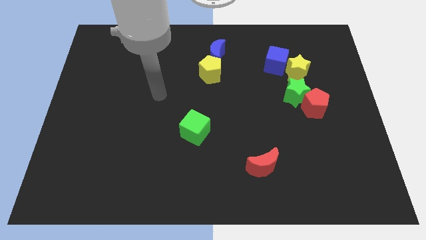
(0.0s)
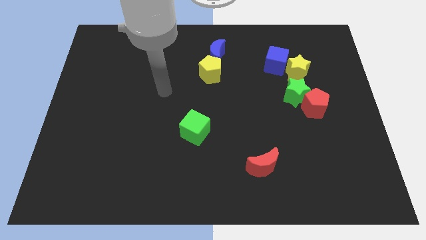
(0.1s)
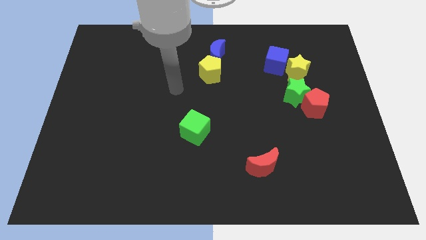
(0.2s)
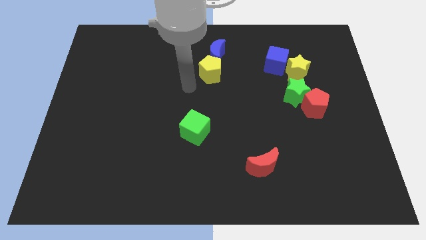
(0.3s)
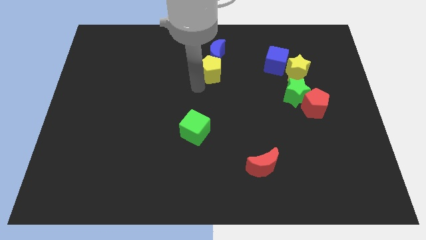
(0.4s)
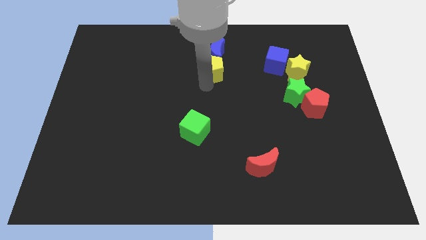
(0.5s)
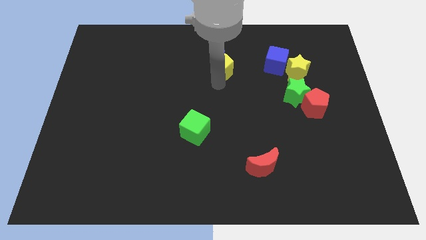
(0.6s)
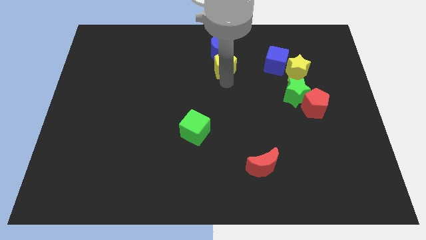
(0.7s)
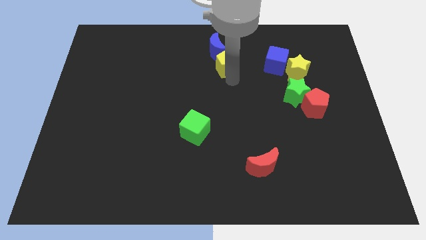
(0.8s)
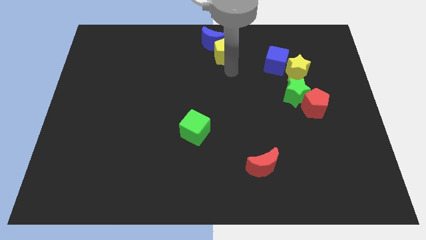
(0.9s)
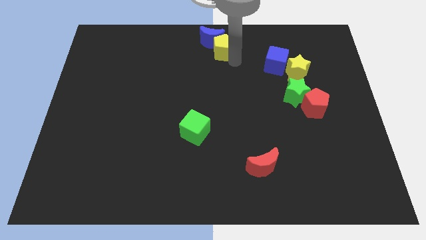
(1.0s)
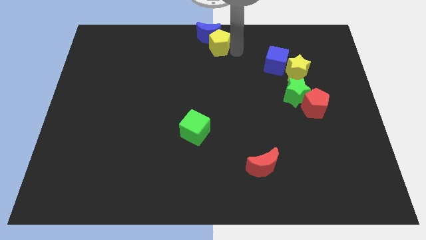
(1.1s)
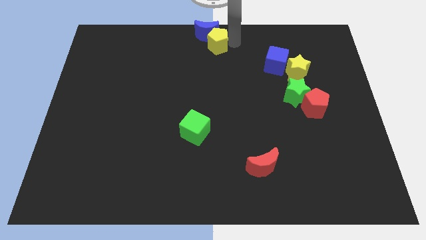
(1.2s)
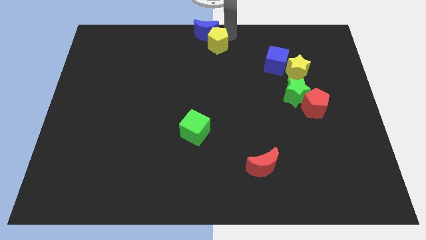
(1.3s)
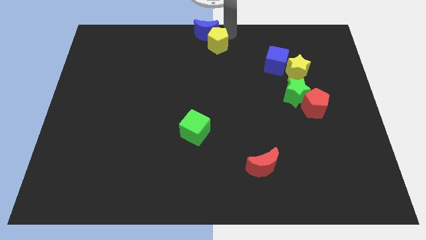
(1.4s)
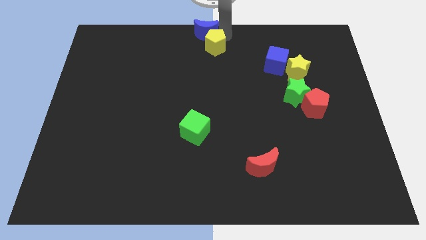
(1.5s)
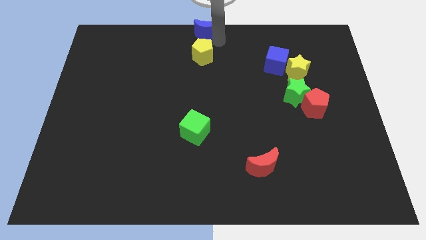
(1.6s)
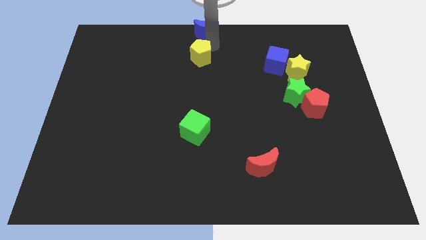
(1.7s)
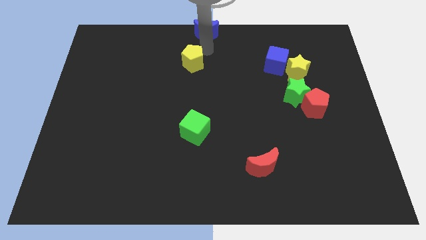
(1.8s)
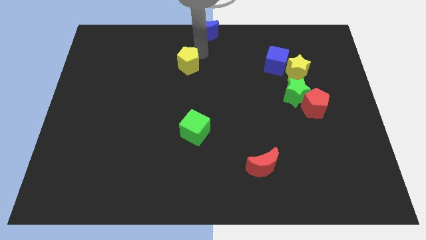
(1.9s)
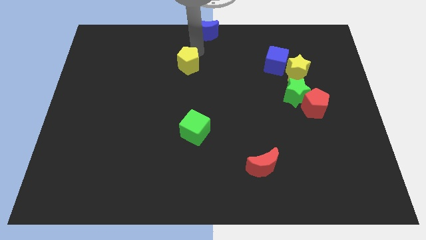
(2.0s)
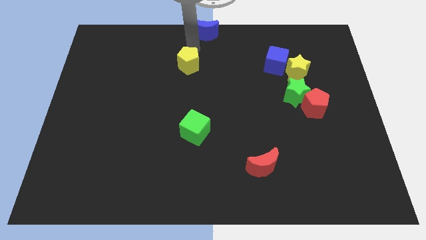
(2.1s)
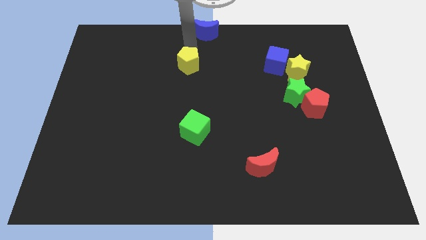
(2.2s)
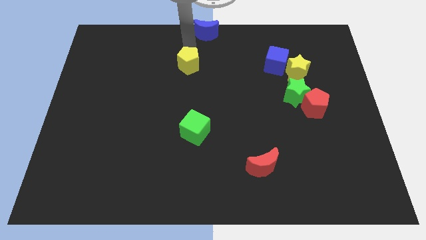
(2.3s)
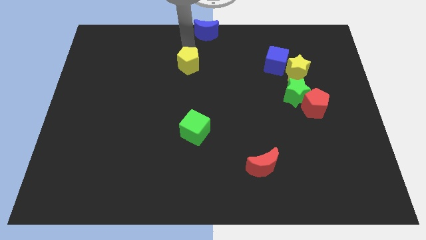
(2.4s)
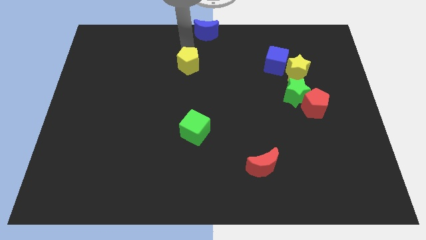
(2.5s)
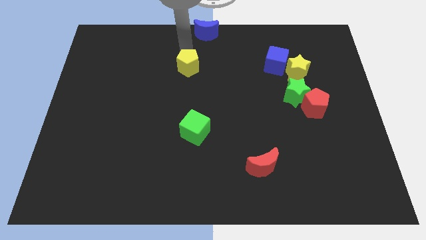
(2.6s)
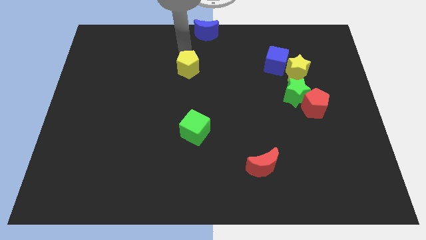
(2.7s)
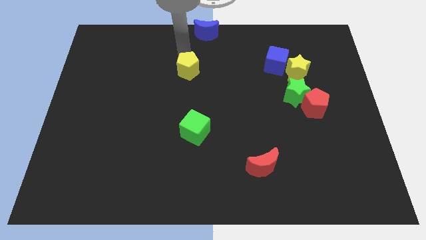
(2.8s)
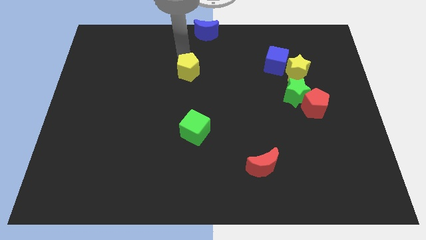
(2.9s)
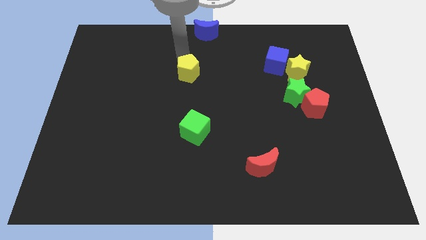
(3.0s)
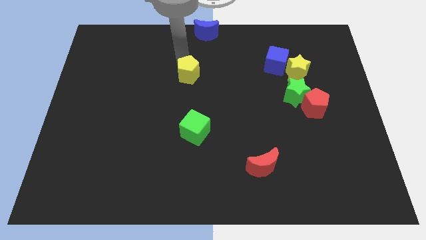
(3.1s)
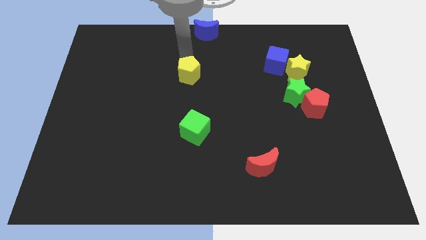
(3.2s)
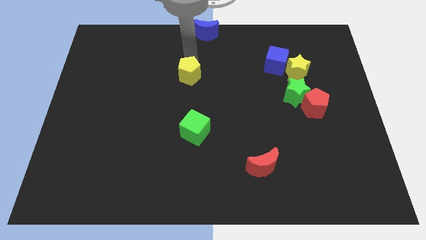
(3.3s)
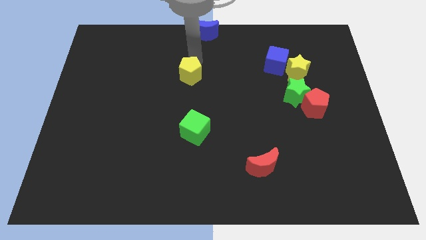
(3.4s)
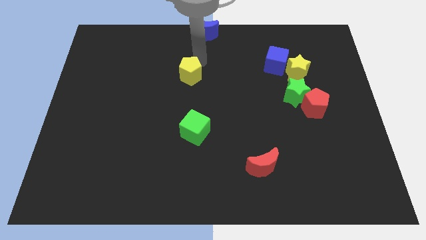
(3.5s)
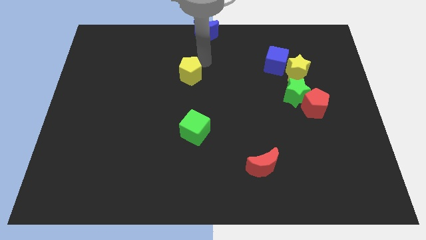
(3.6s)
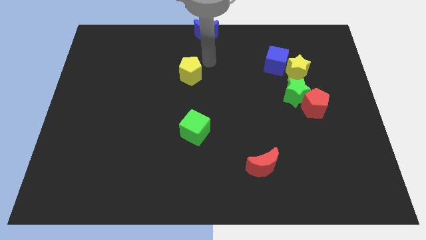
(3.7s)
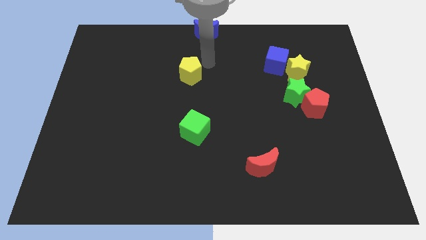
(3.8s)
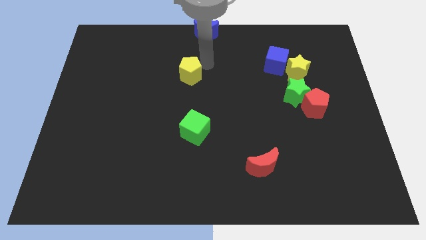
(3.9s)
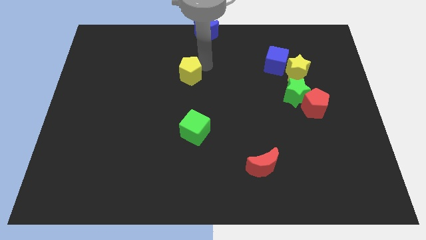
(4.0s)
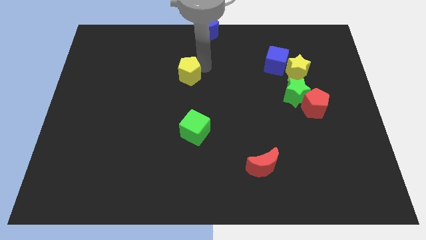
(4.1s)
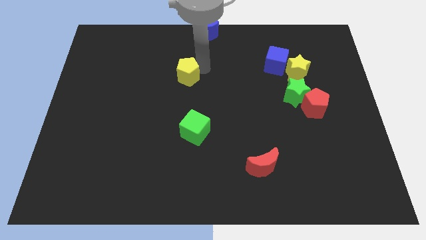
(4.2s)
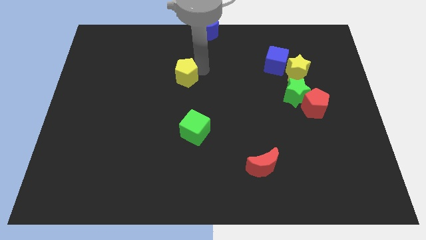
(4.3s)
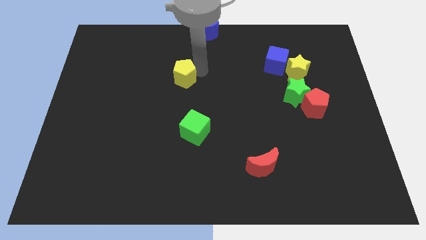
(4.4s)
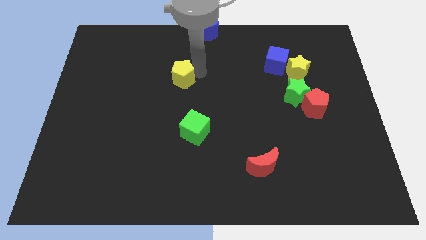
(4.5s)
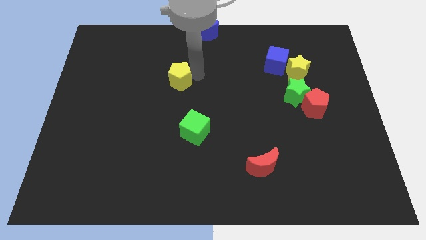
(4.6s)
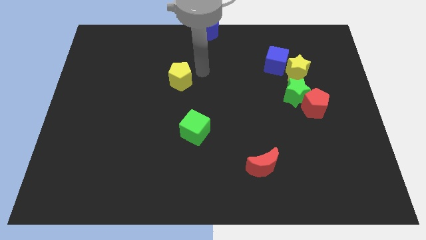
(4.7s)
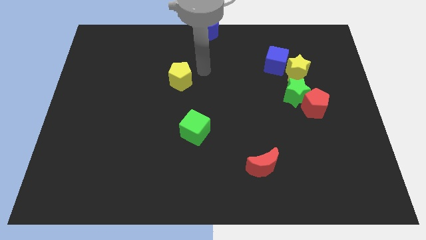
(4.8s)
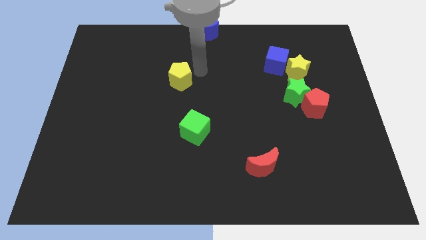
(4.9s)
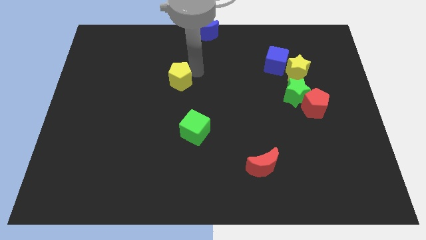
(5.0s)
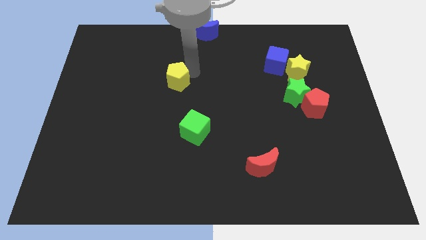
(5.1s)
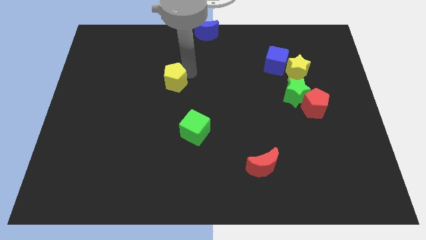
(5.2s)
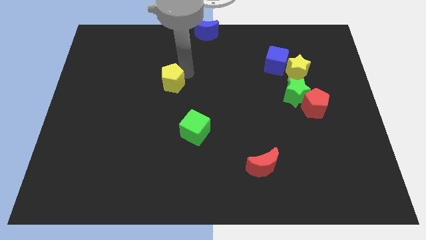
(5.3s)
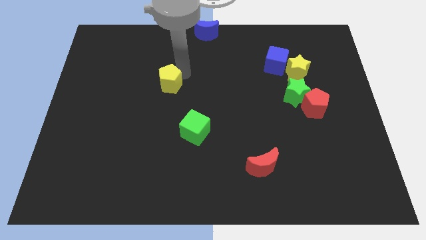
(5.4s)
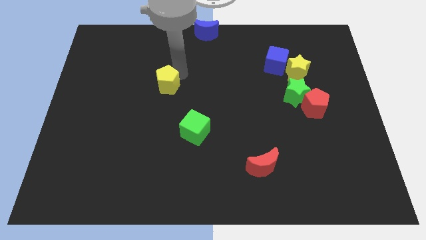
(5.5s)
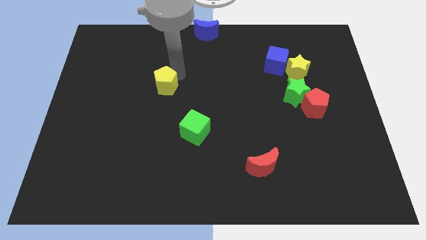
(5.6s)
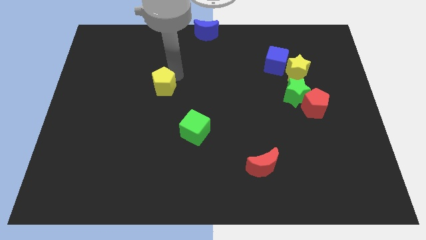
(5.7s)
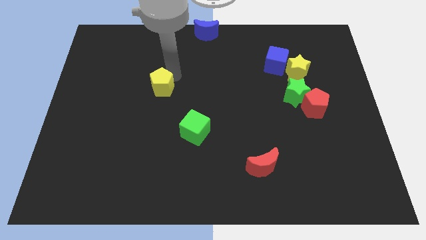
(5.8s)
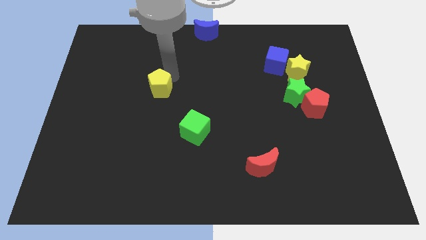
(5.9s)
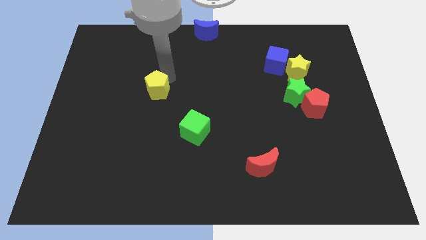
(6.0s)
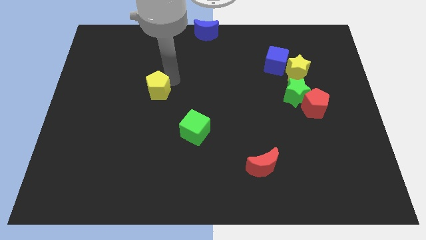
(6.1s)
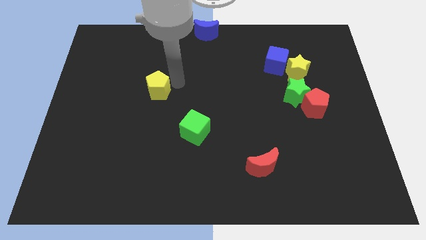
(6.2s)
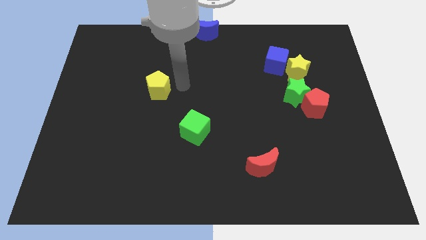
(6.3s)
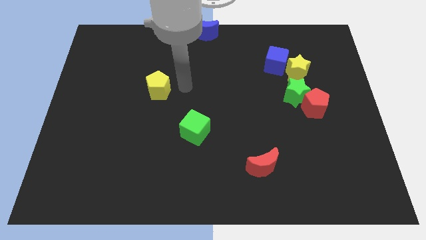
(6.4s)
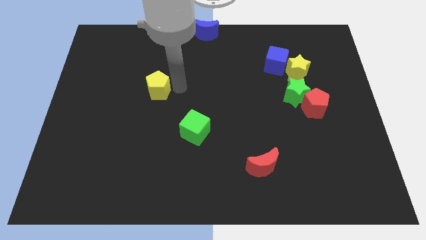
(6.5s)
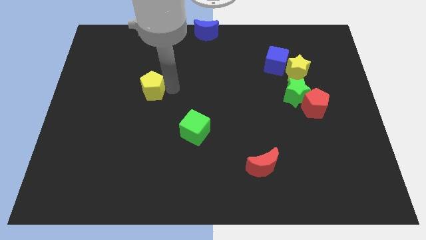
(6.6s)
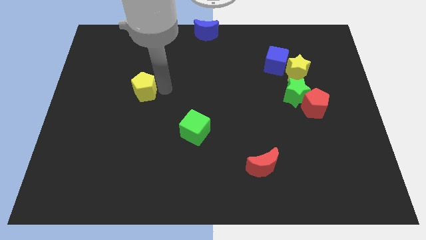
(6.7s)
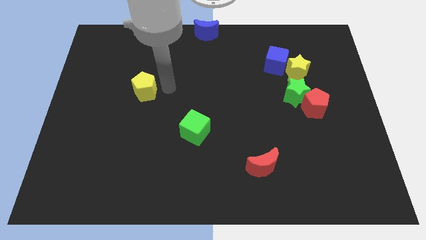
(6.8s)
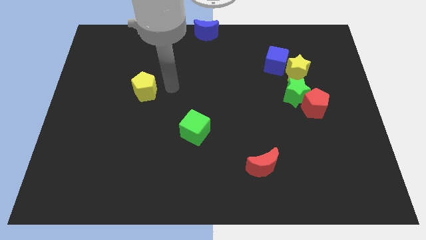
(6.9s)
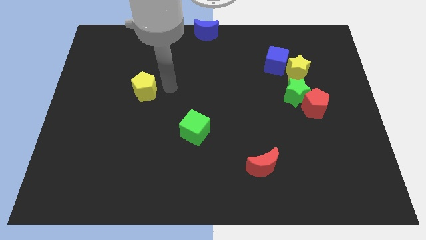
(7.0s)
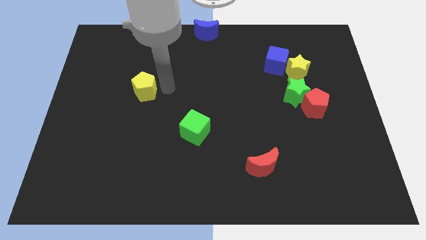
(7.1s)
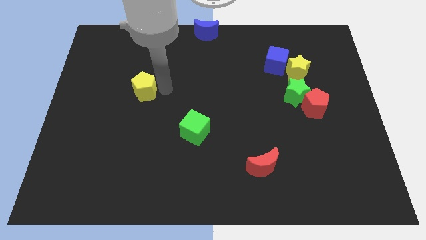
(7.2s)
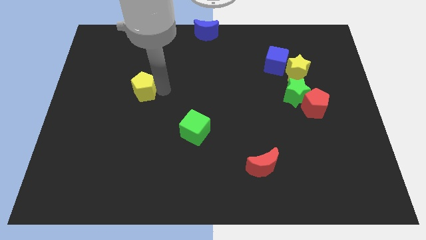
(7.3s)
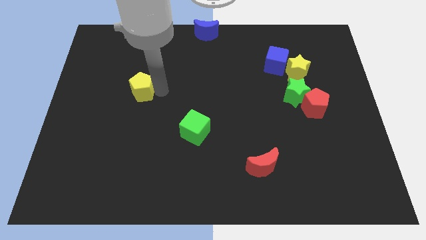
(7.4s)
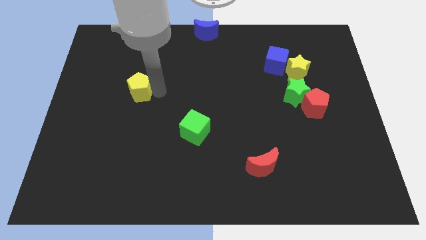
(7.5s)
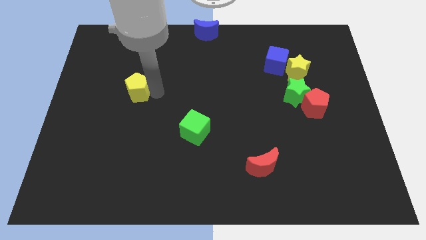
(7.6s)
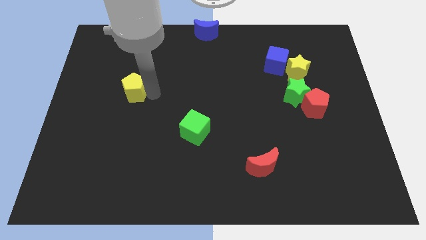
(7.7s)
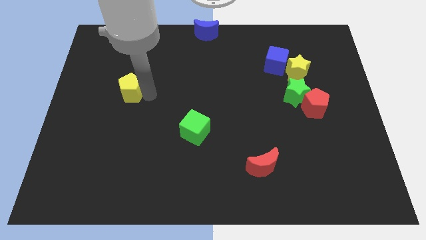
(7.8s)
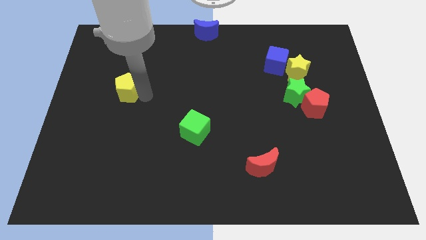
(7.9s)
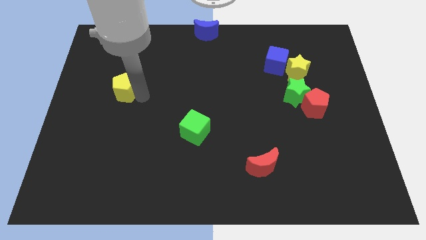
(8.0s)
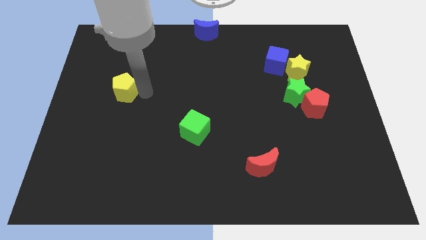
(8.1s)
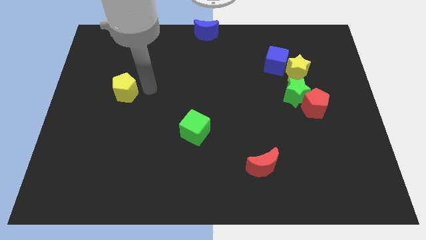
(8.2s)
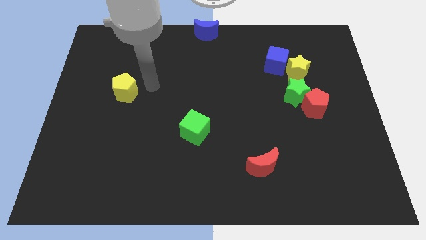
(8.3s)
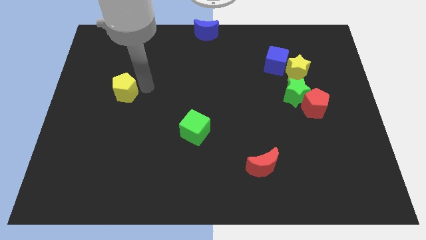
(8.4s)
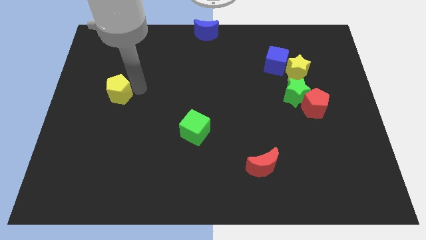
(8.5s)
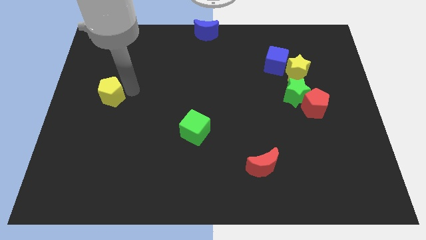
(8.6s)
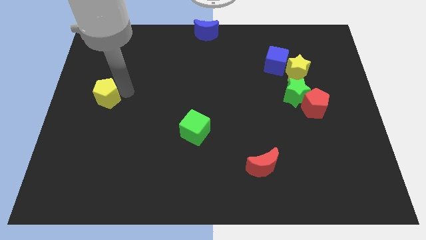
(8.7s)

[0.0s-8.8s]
push the yellow pentagon to the left side of the board
